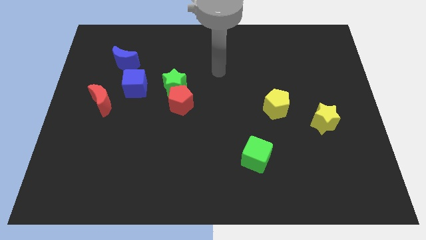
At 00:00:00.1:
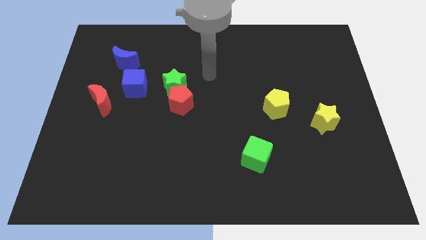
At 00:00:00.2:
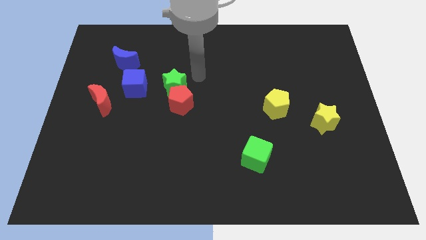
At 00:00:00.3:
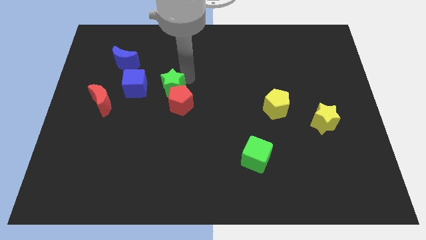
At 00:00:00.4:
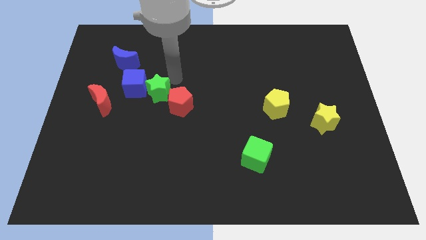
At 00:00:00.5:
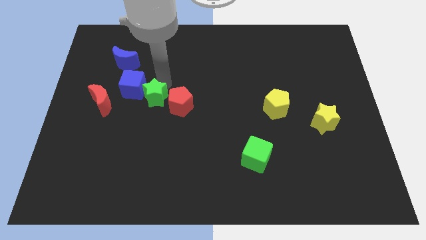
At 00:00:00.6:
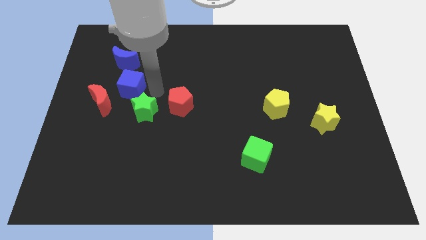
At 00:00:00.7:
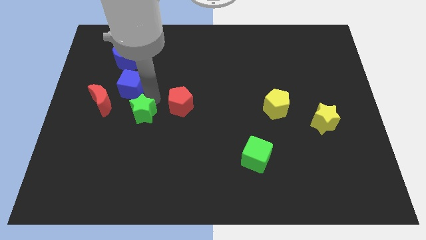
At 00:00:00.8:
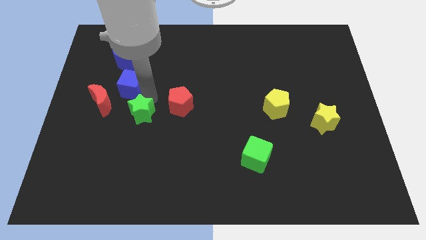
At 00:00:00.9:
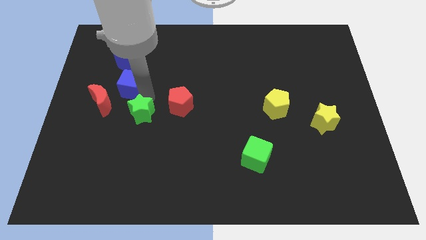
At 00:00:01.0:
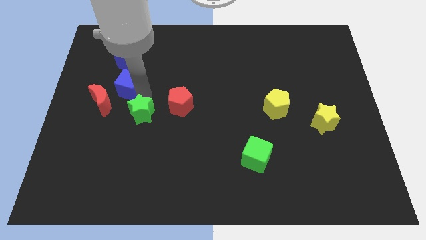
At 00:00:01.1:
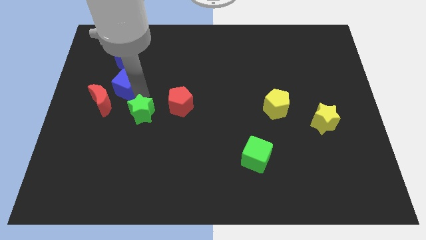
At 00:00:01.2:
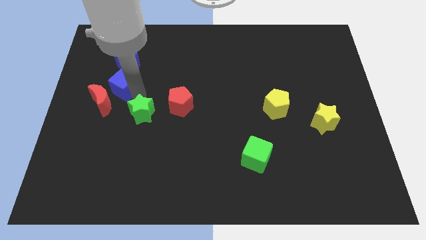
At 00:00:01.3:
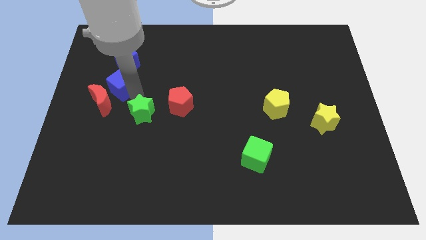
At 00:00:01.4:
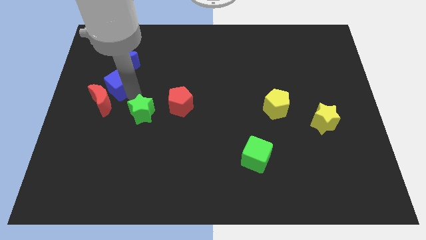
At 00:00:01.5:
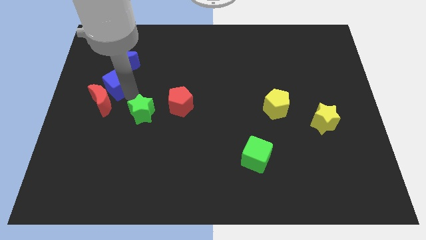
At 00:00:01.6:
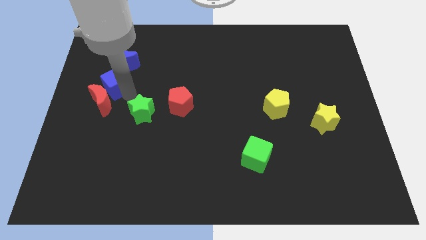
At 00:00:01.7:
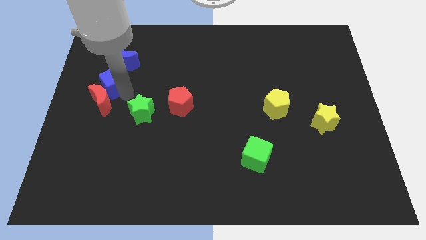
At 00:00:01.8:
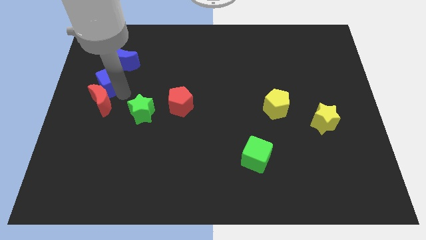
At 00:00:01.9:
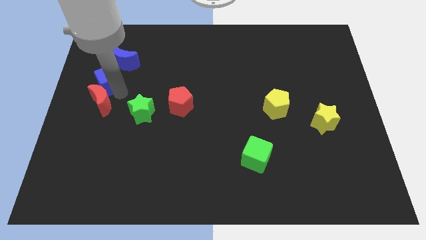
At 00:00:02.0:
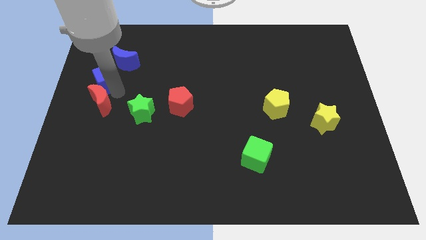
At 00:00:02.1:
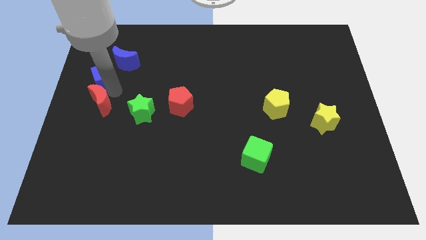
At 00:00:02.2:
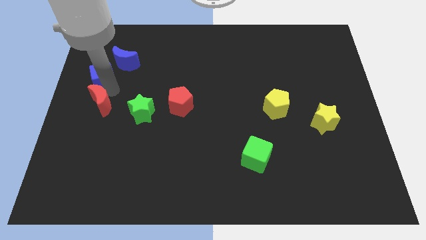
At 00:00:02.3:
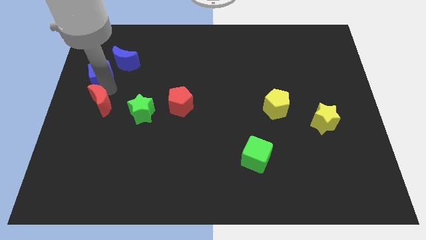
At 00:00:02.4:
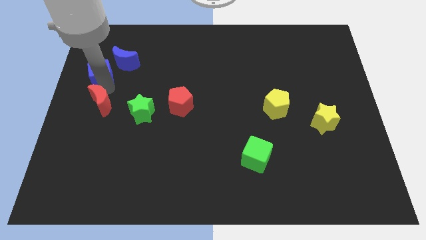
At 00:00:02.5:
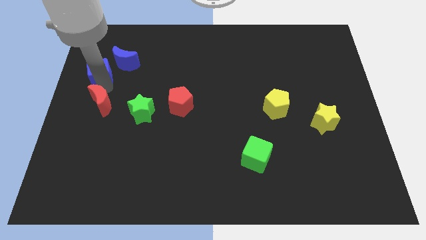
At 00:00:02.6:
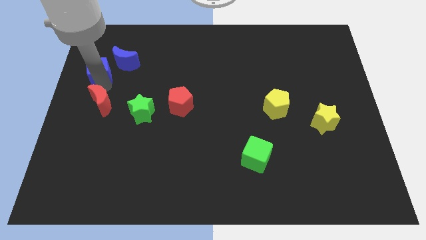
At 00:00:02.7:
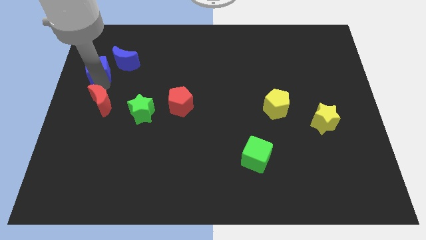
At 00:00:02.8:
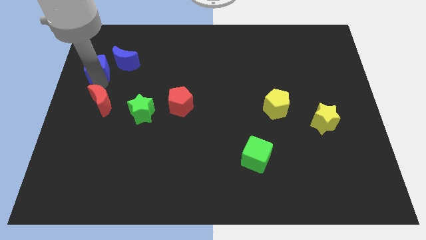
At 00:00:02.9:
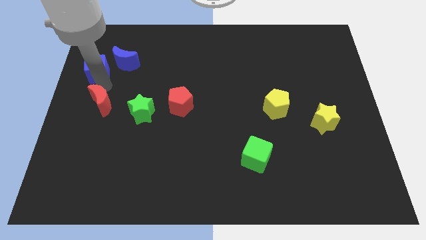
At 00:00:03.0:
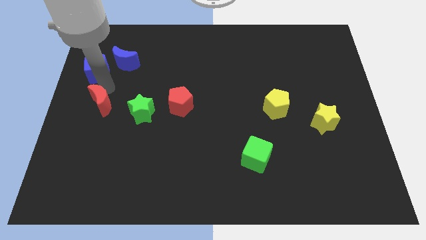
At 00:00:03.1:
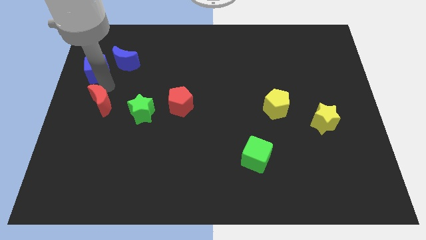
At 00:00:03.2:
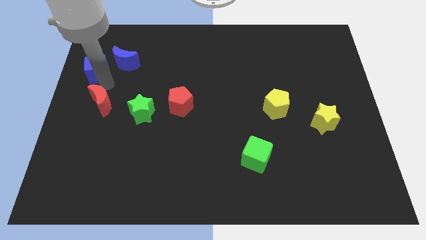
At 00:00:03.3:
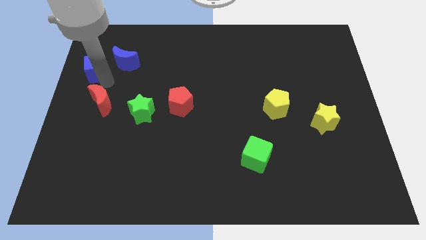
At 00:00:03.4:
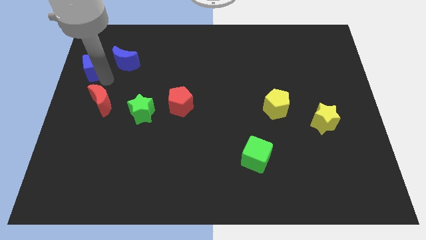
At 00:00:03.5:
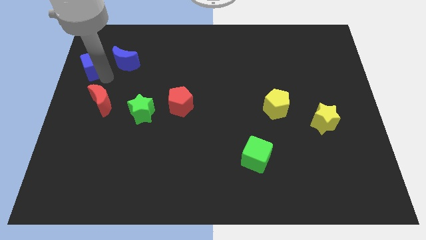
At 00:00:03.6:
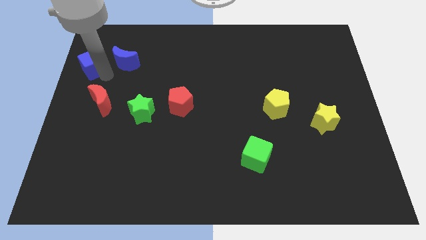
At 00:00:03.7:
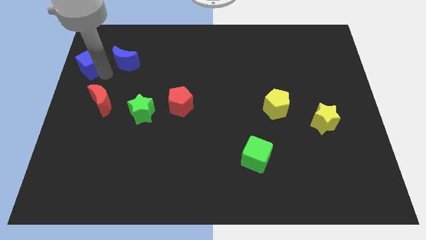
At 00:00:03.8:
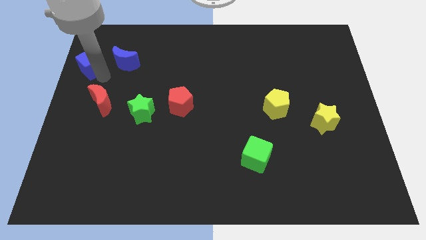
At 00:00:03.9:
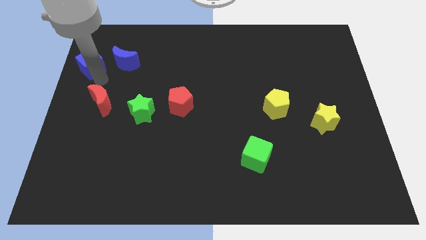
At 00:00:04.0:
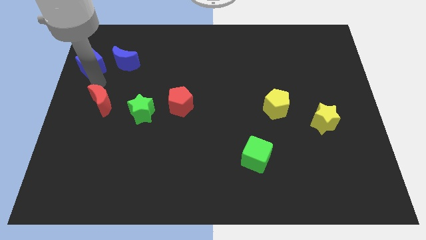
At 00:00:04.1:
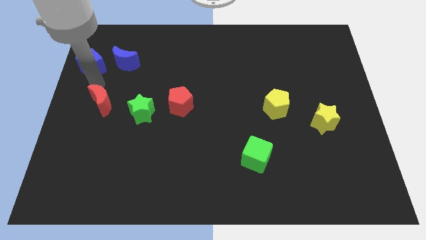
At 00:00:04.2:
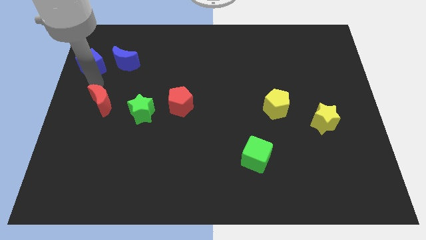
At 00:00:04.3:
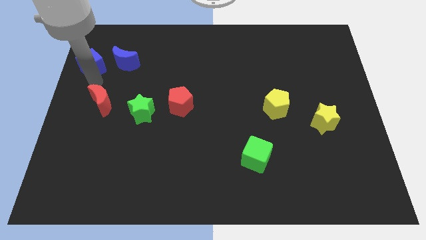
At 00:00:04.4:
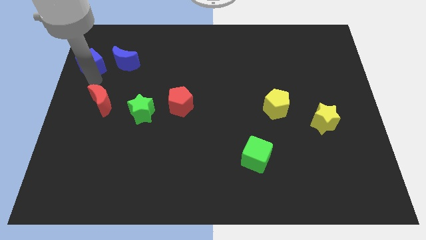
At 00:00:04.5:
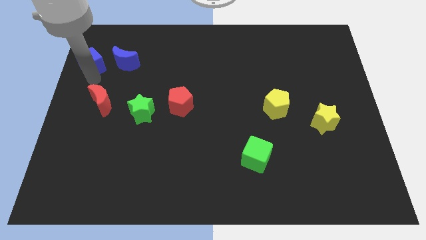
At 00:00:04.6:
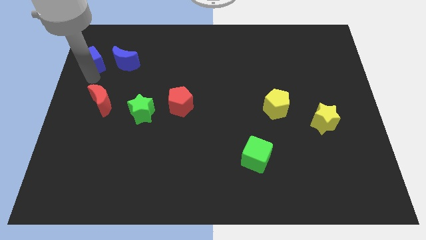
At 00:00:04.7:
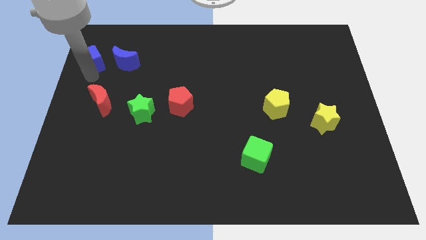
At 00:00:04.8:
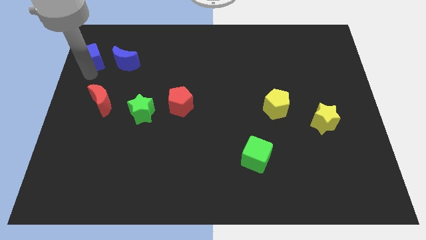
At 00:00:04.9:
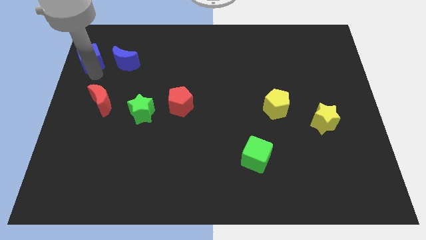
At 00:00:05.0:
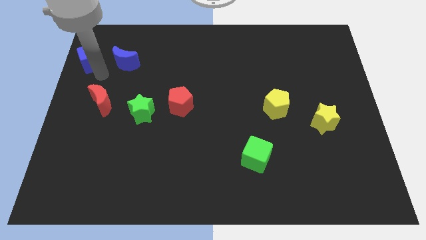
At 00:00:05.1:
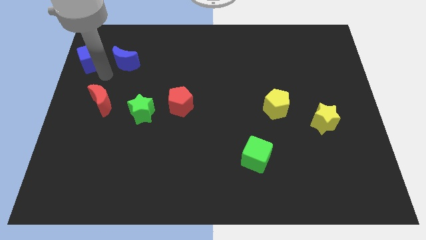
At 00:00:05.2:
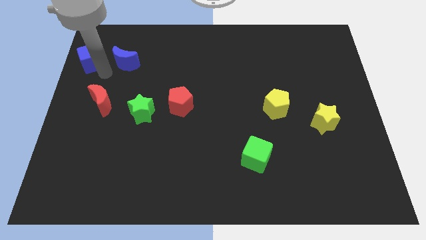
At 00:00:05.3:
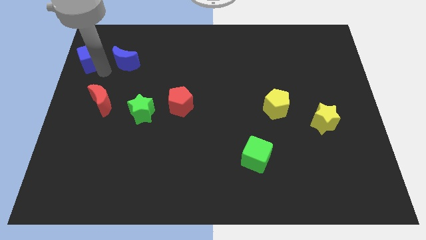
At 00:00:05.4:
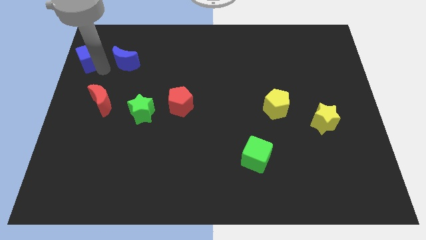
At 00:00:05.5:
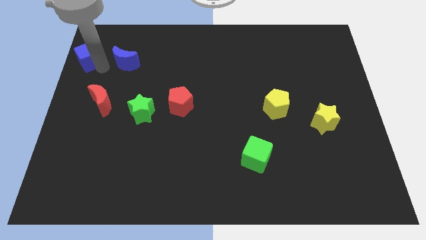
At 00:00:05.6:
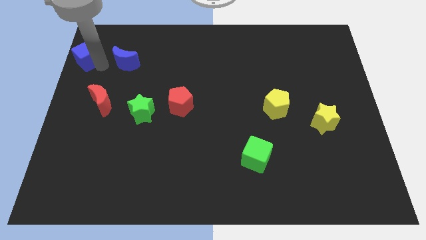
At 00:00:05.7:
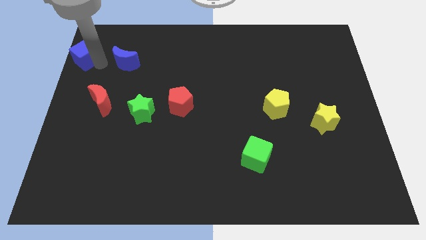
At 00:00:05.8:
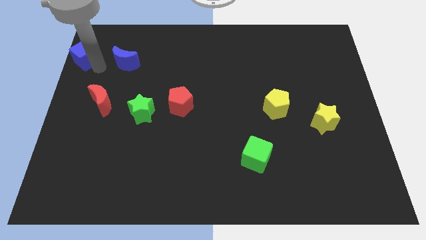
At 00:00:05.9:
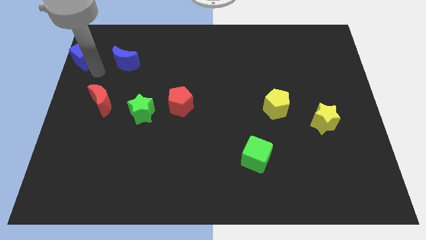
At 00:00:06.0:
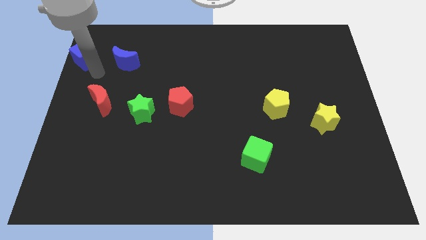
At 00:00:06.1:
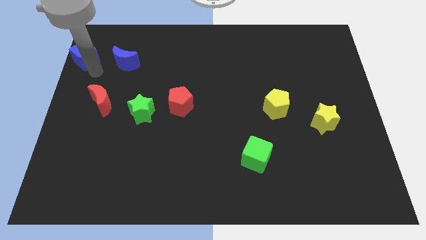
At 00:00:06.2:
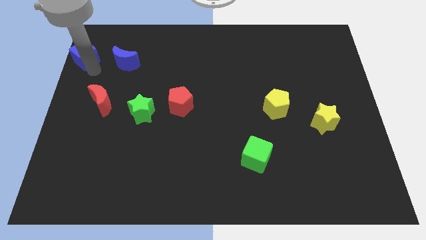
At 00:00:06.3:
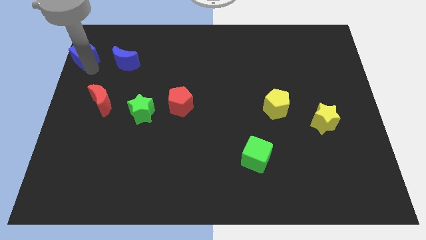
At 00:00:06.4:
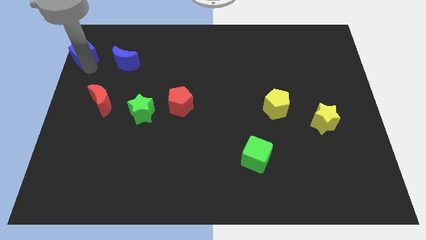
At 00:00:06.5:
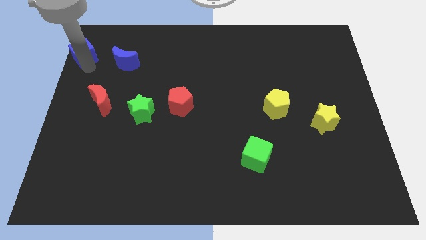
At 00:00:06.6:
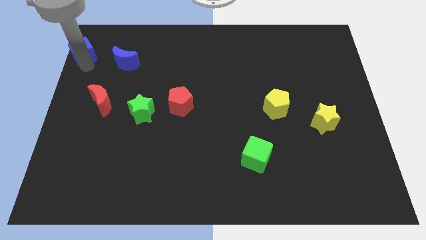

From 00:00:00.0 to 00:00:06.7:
push the blue cube to the top left of the board
